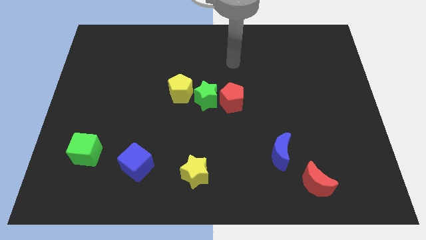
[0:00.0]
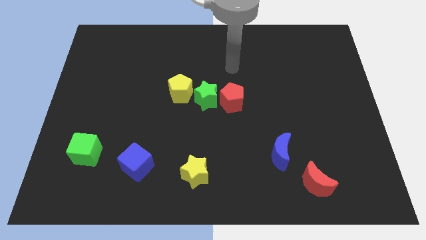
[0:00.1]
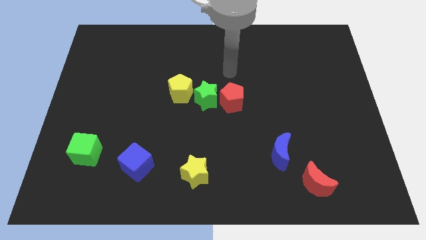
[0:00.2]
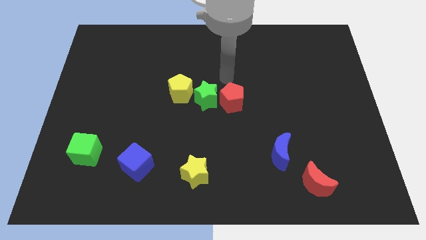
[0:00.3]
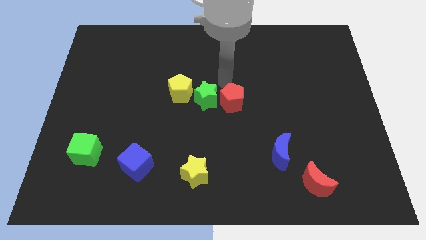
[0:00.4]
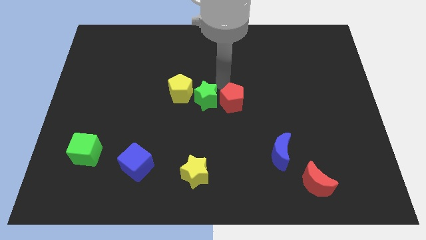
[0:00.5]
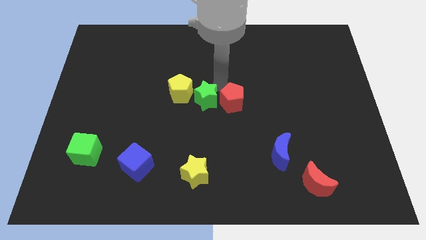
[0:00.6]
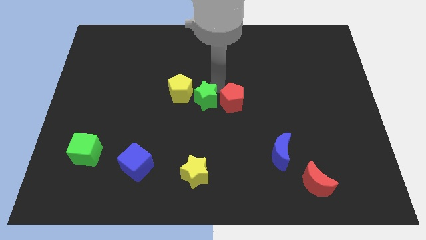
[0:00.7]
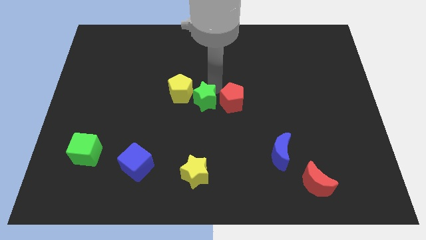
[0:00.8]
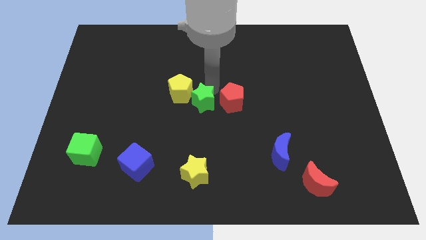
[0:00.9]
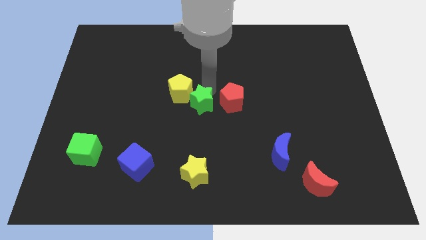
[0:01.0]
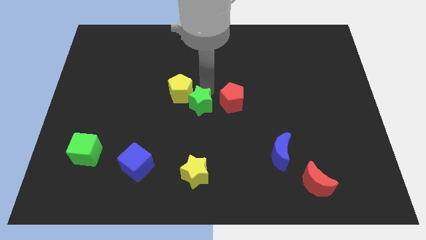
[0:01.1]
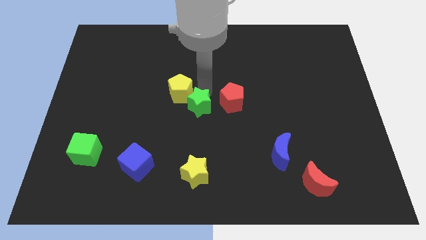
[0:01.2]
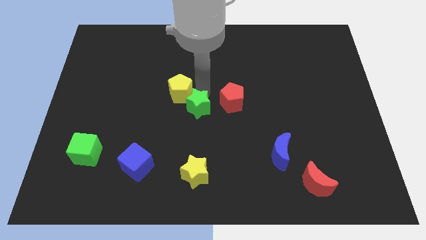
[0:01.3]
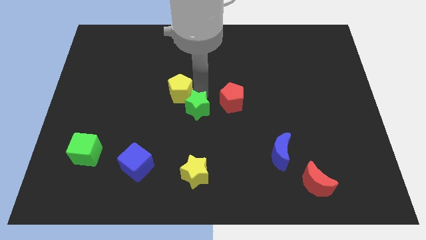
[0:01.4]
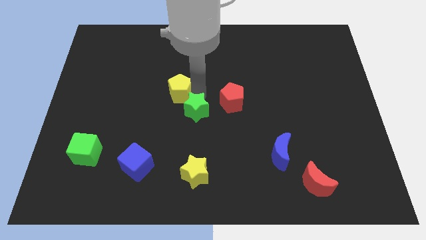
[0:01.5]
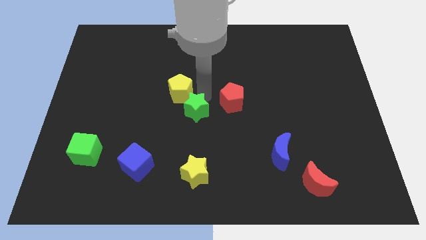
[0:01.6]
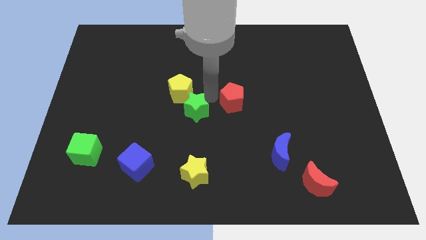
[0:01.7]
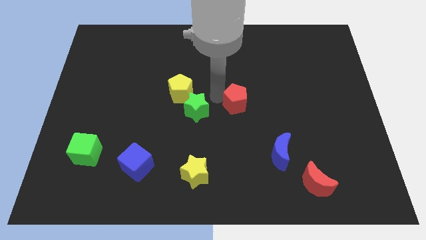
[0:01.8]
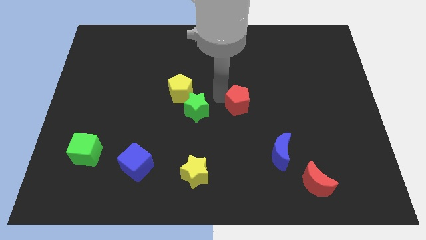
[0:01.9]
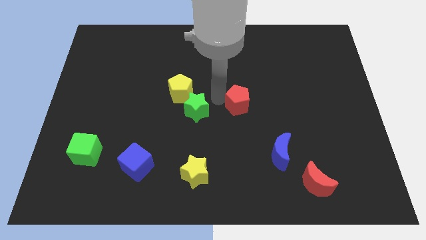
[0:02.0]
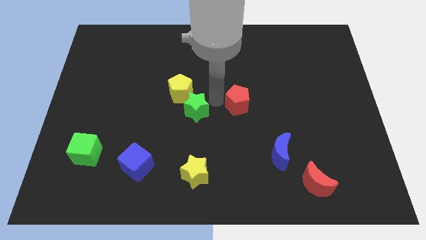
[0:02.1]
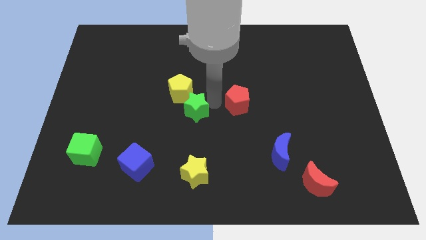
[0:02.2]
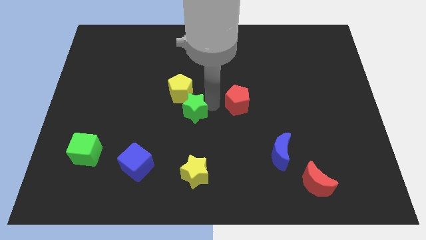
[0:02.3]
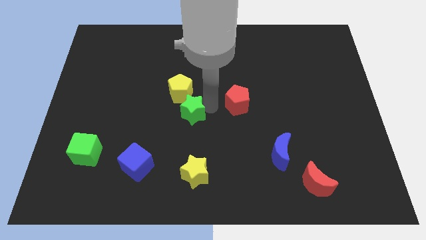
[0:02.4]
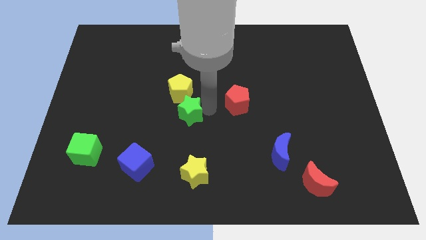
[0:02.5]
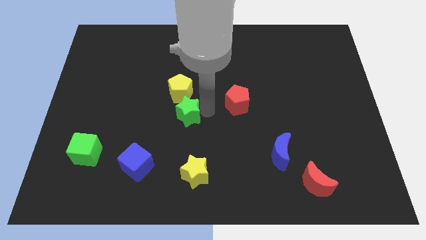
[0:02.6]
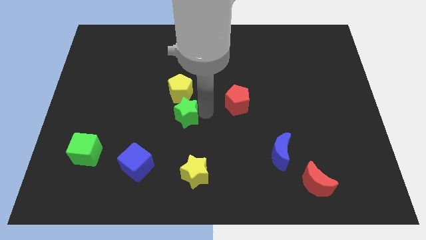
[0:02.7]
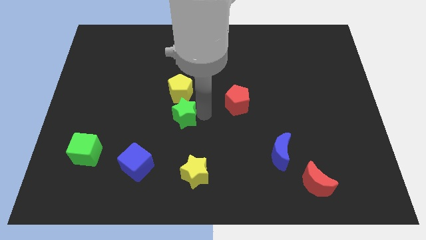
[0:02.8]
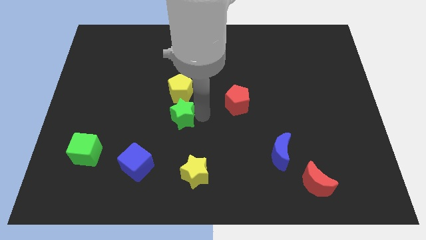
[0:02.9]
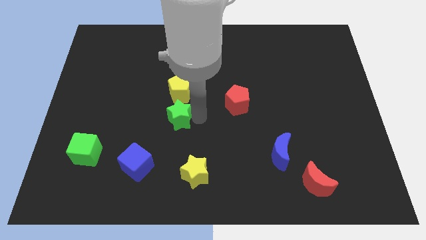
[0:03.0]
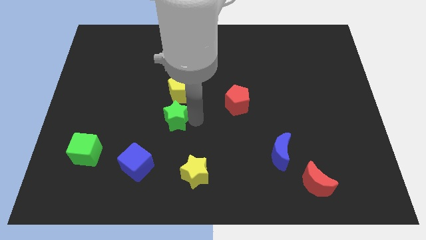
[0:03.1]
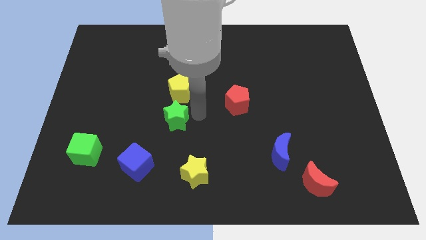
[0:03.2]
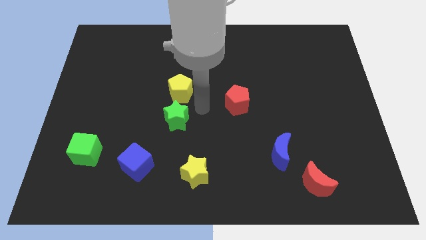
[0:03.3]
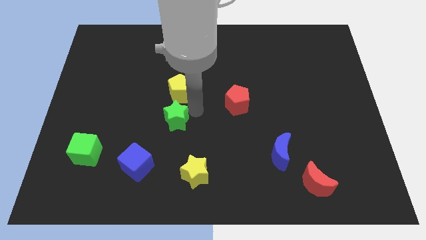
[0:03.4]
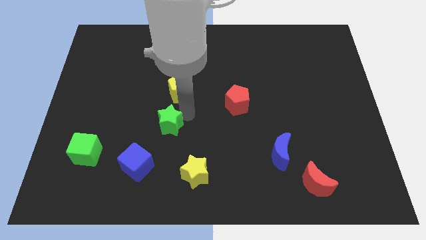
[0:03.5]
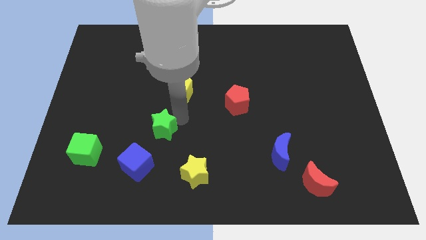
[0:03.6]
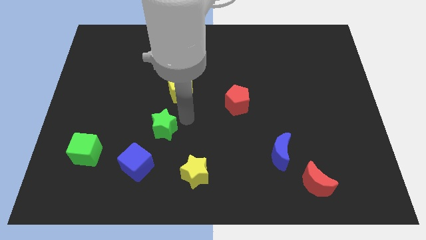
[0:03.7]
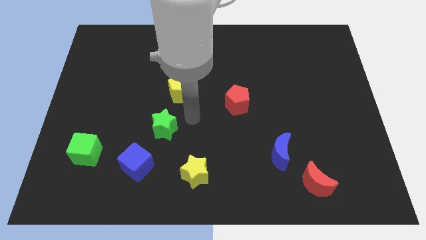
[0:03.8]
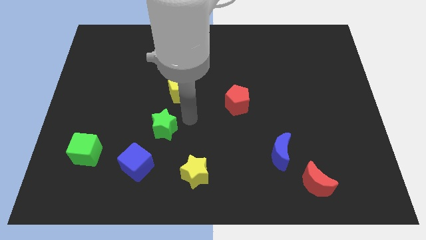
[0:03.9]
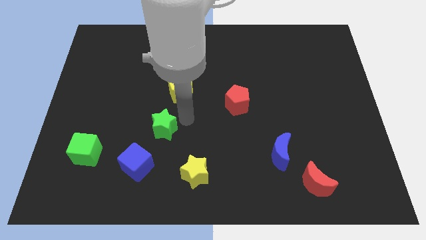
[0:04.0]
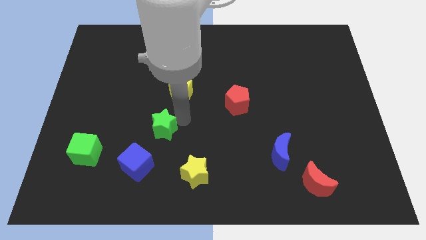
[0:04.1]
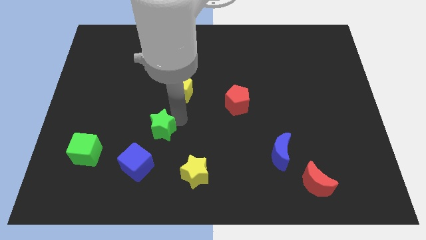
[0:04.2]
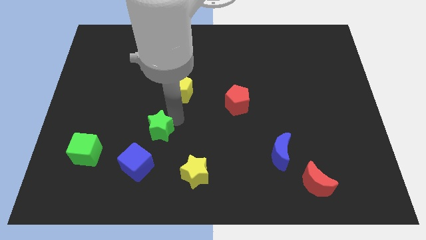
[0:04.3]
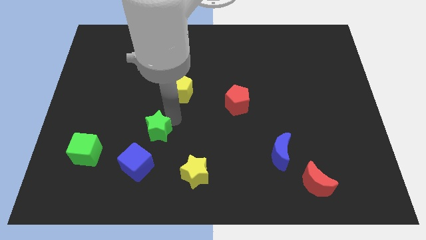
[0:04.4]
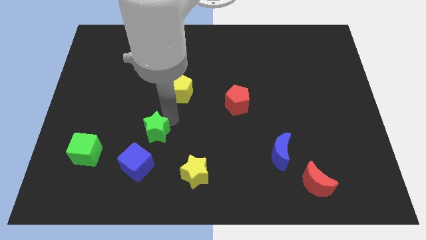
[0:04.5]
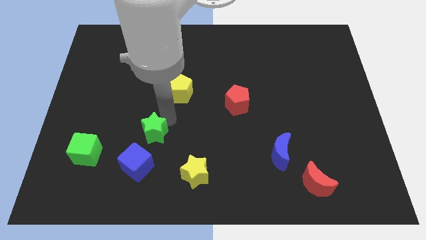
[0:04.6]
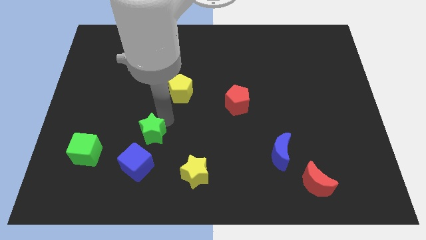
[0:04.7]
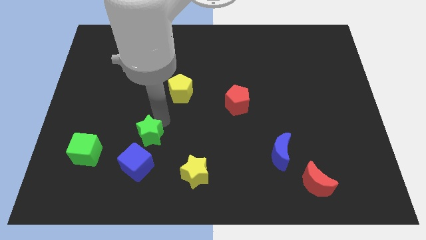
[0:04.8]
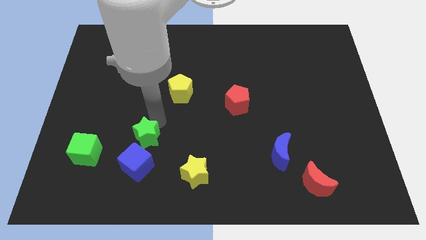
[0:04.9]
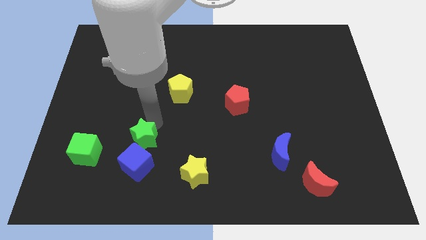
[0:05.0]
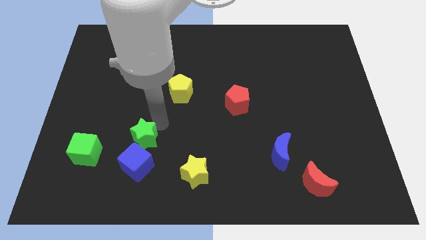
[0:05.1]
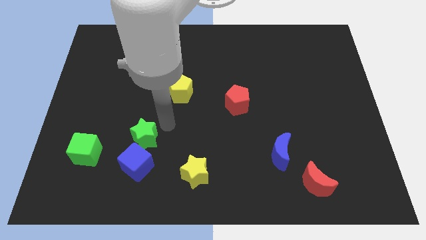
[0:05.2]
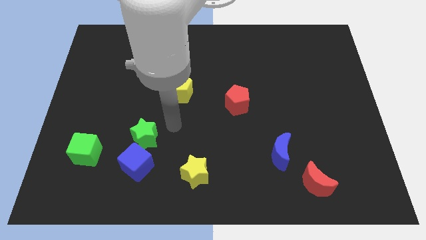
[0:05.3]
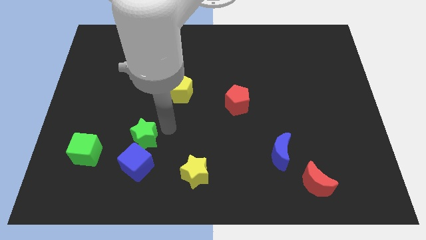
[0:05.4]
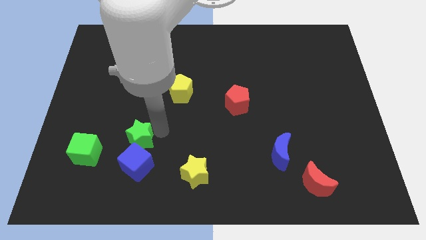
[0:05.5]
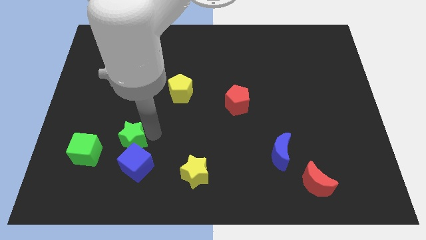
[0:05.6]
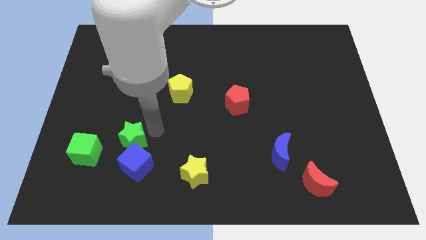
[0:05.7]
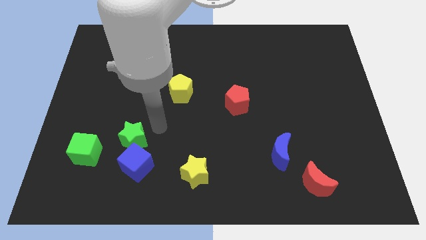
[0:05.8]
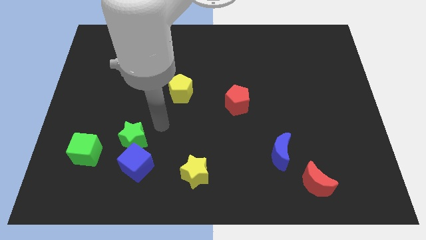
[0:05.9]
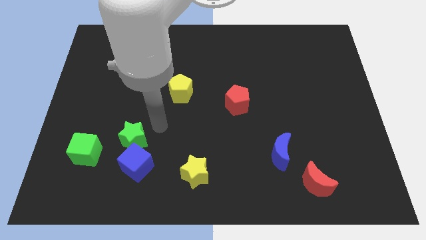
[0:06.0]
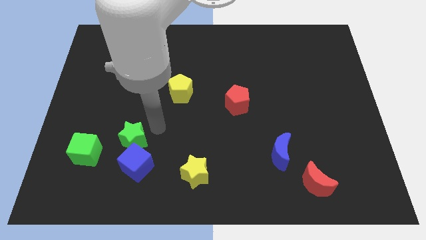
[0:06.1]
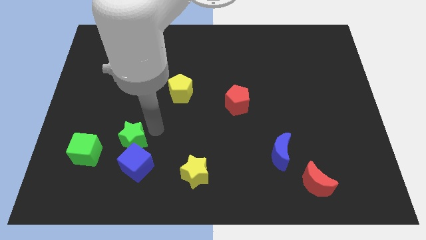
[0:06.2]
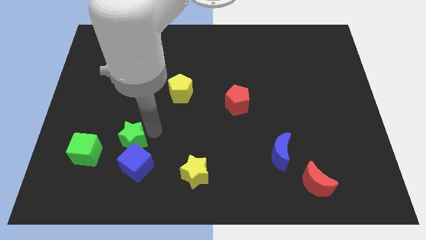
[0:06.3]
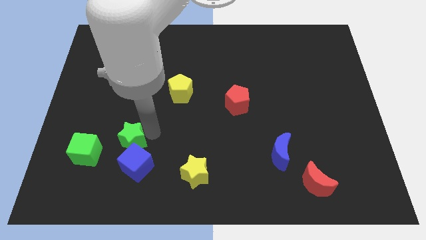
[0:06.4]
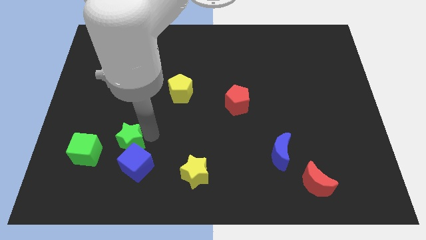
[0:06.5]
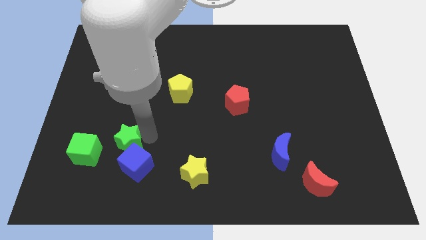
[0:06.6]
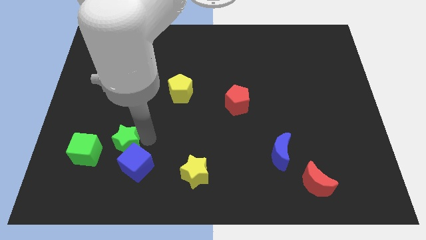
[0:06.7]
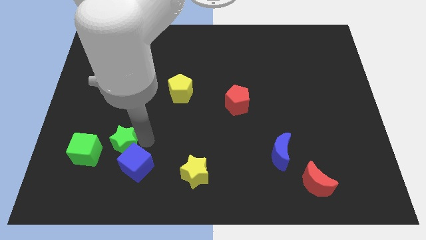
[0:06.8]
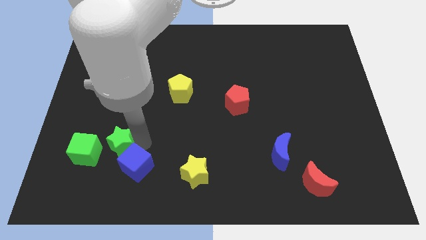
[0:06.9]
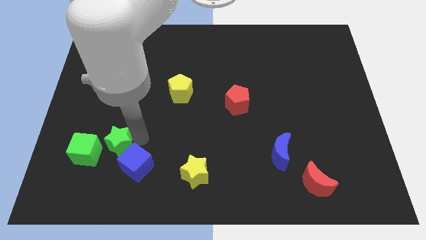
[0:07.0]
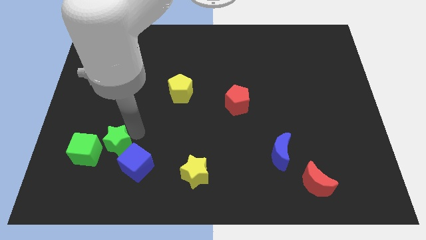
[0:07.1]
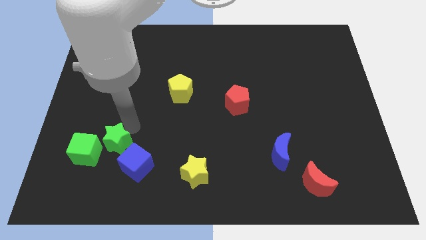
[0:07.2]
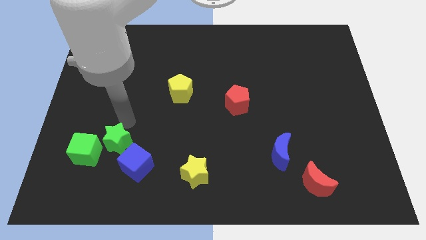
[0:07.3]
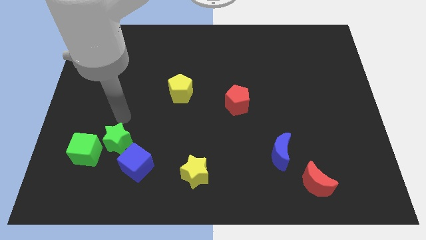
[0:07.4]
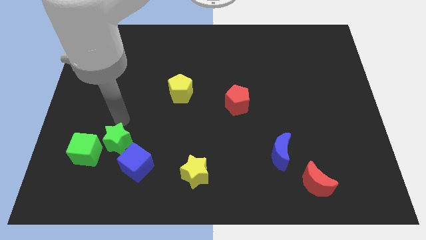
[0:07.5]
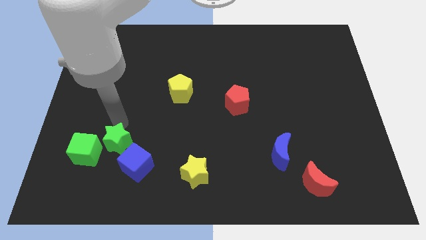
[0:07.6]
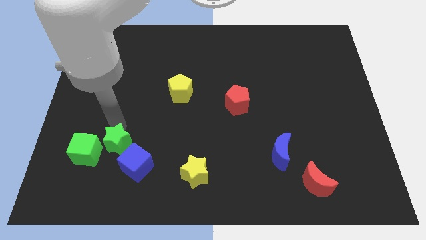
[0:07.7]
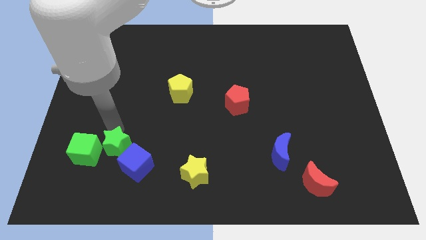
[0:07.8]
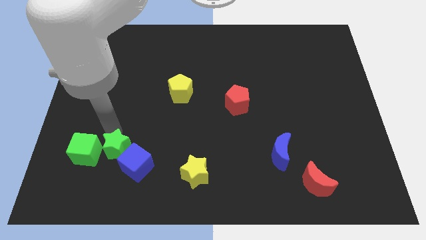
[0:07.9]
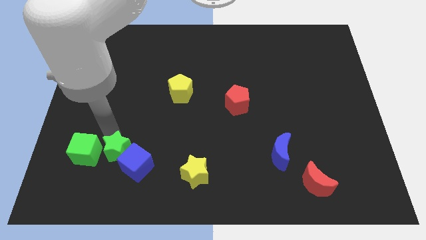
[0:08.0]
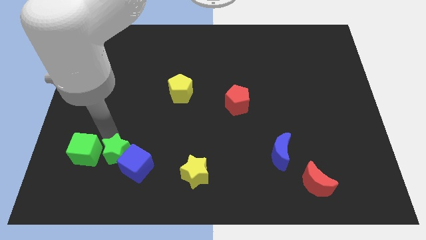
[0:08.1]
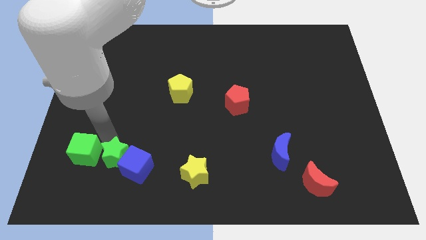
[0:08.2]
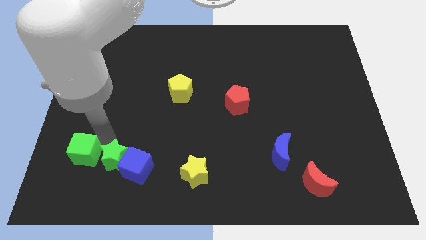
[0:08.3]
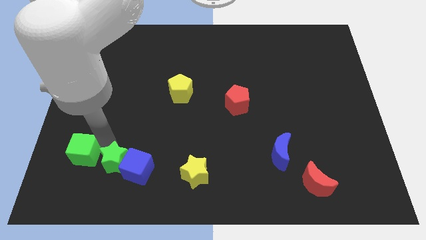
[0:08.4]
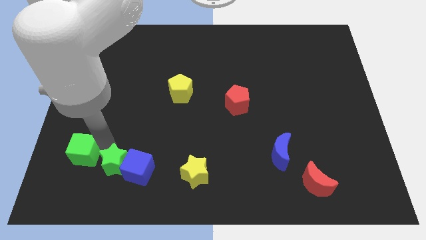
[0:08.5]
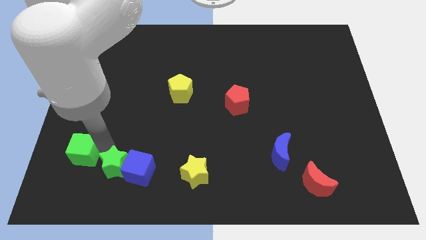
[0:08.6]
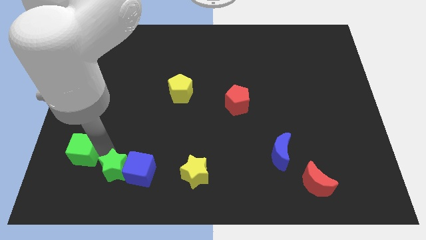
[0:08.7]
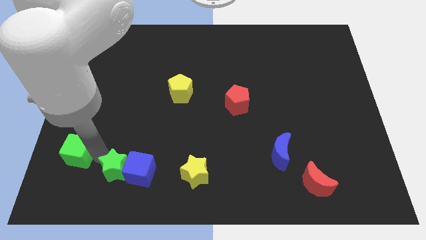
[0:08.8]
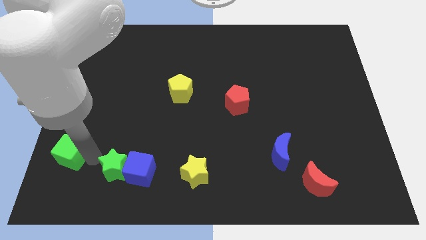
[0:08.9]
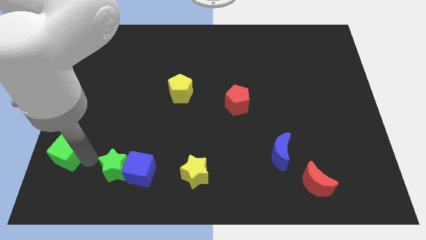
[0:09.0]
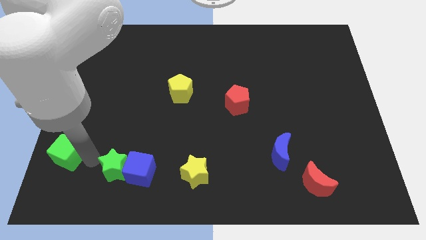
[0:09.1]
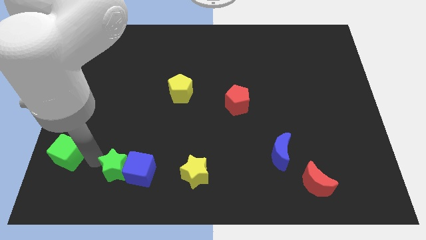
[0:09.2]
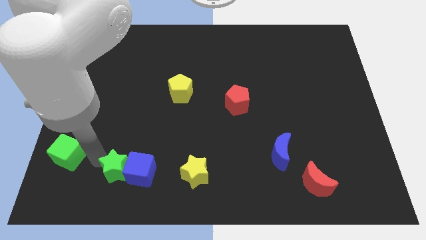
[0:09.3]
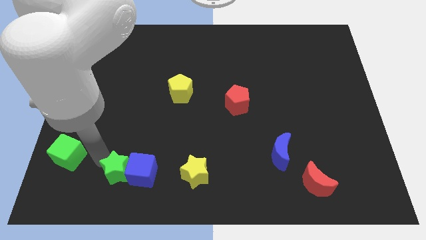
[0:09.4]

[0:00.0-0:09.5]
move the green star to the left of the yellow star
